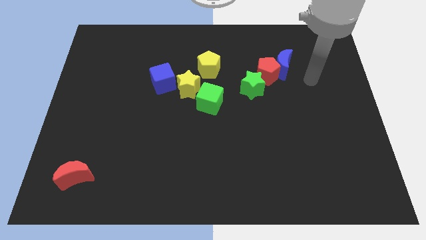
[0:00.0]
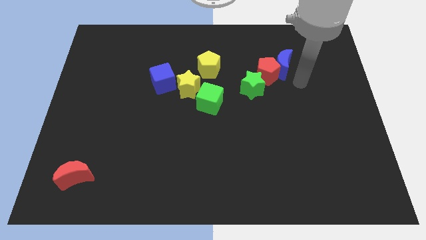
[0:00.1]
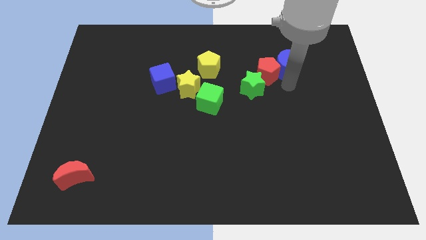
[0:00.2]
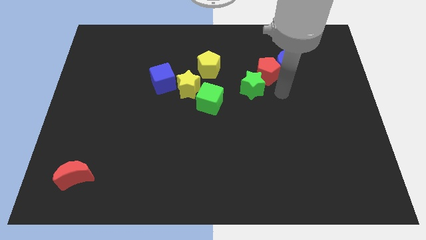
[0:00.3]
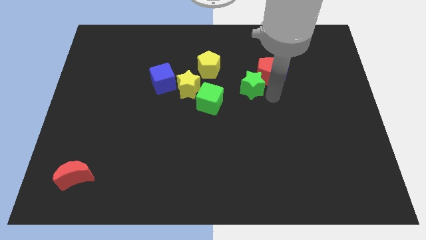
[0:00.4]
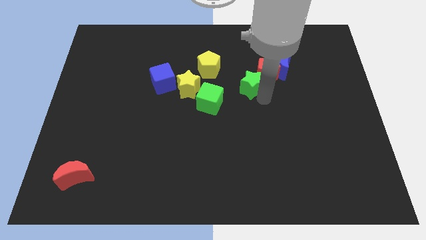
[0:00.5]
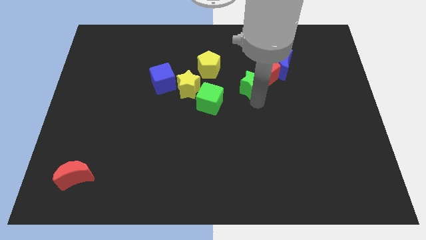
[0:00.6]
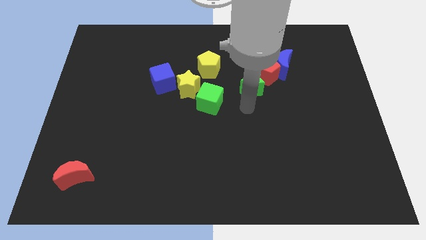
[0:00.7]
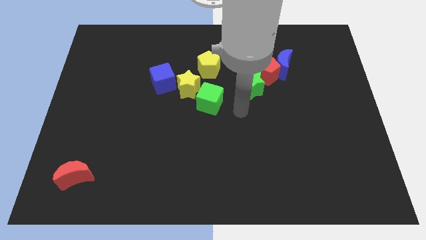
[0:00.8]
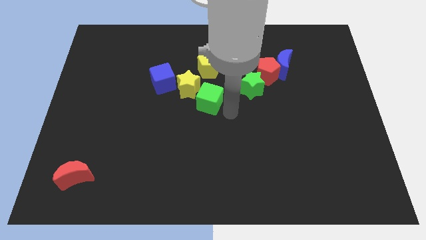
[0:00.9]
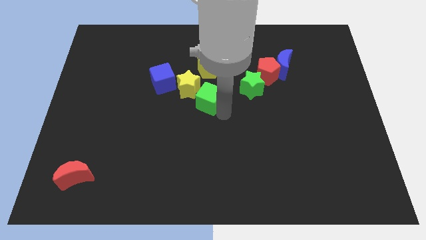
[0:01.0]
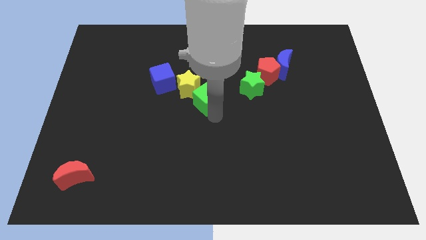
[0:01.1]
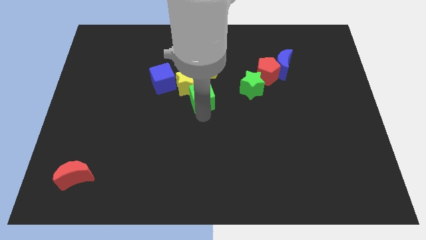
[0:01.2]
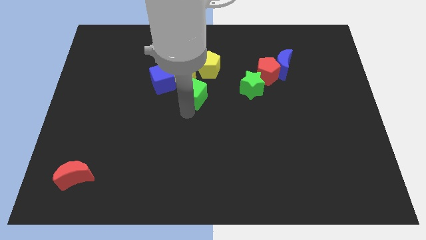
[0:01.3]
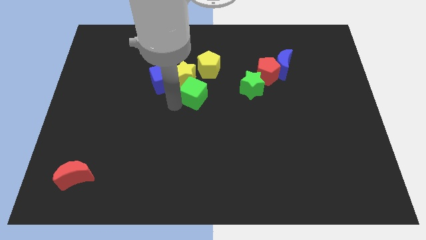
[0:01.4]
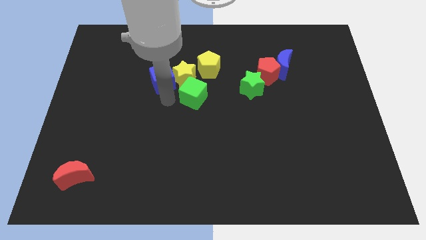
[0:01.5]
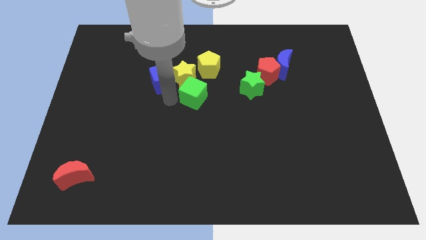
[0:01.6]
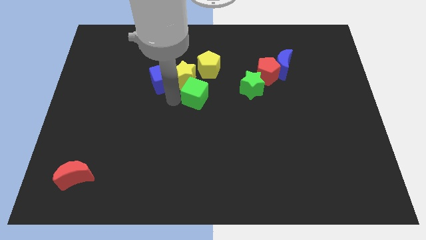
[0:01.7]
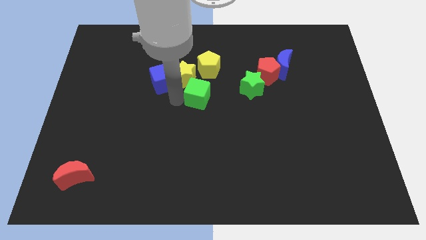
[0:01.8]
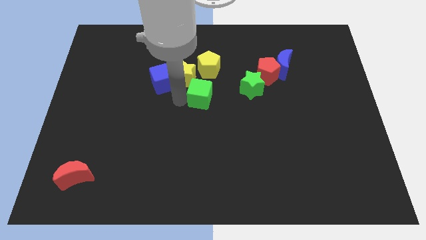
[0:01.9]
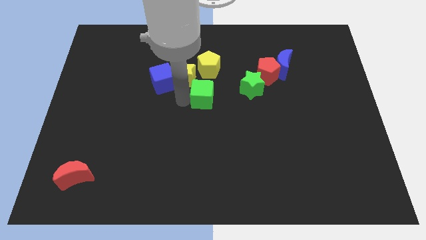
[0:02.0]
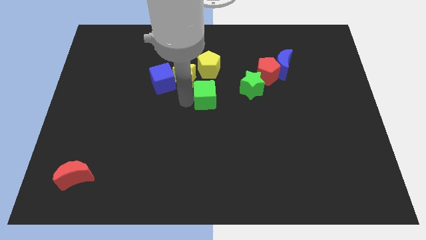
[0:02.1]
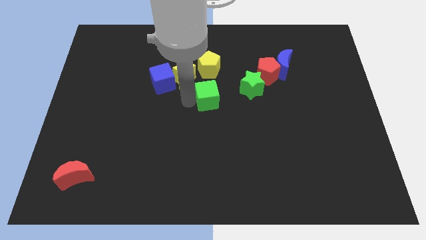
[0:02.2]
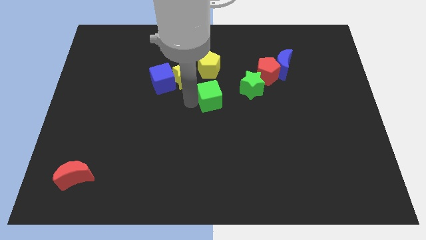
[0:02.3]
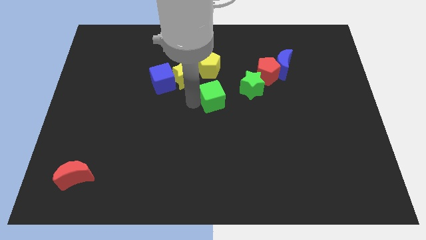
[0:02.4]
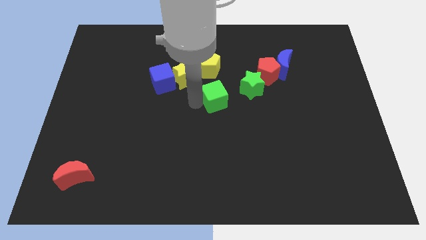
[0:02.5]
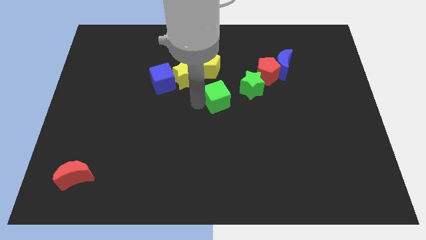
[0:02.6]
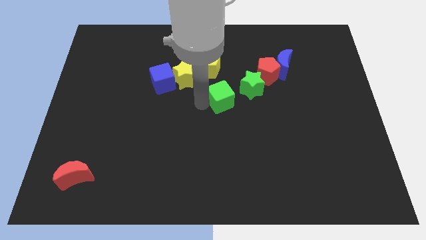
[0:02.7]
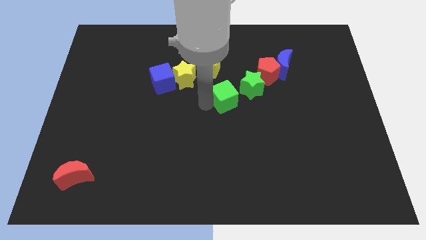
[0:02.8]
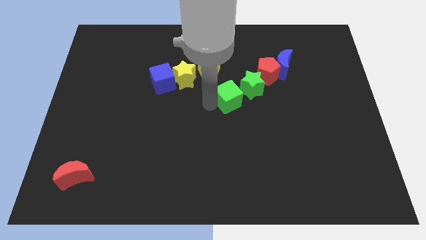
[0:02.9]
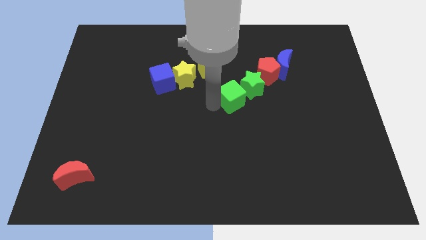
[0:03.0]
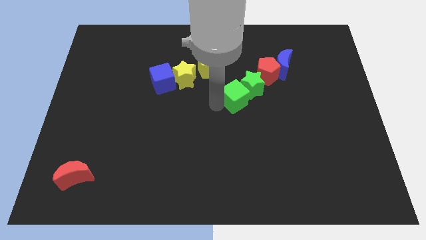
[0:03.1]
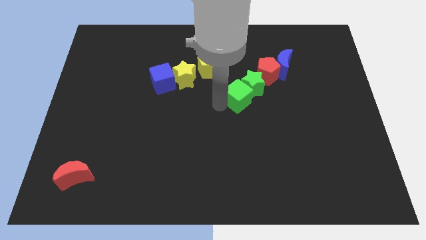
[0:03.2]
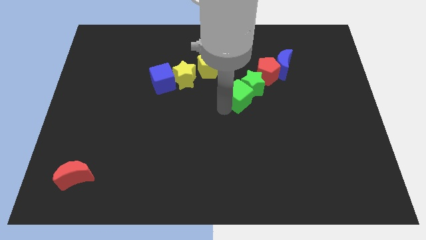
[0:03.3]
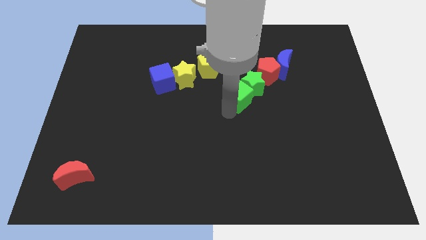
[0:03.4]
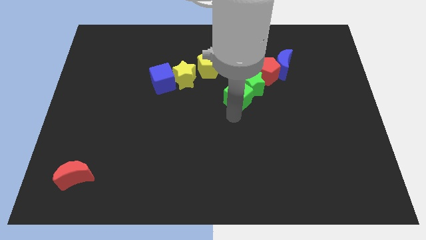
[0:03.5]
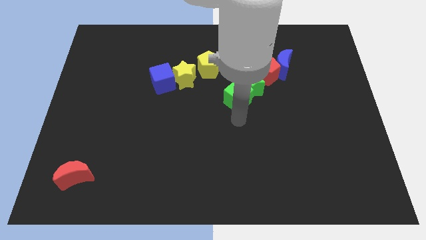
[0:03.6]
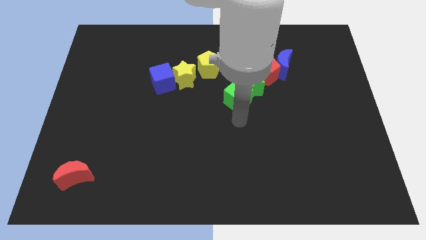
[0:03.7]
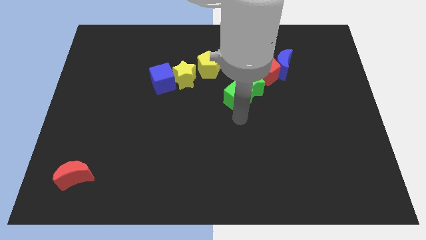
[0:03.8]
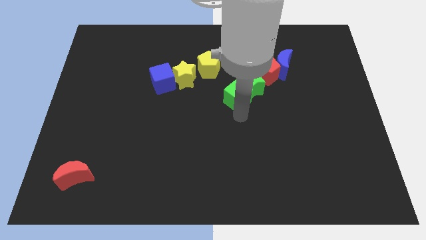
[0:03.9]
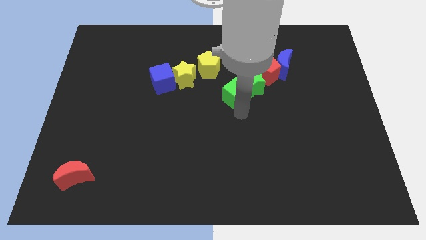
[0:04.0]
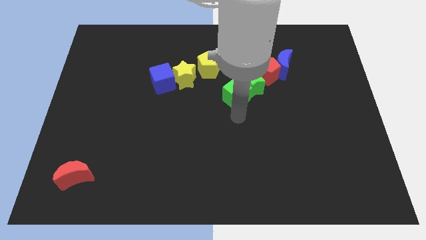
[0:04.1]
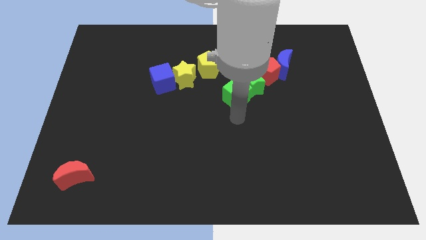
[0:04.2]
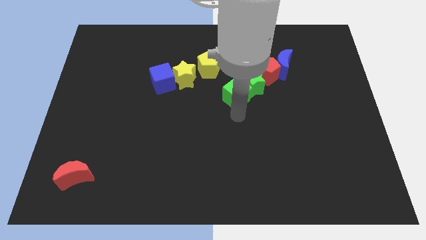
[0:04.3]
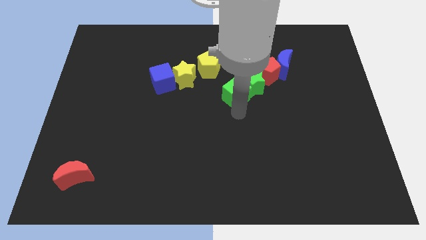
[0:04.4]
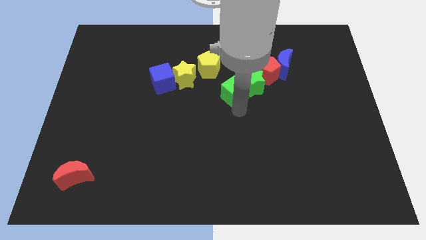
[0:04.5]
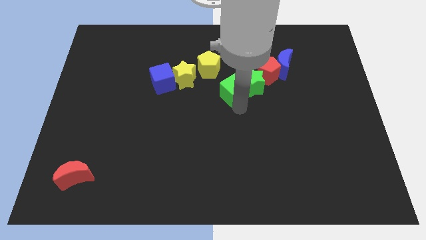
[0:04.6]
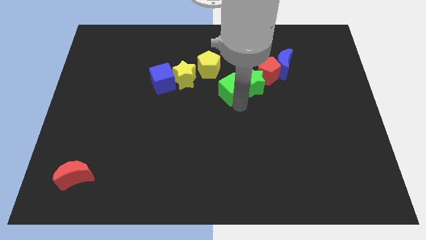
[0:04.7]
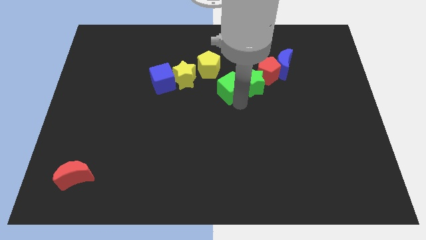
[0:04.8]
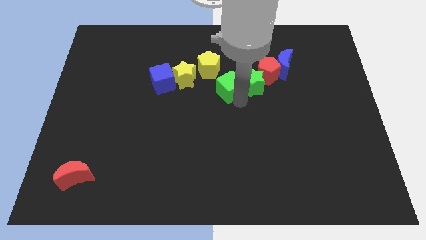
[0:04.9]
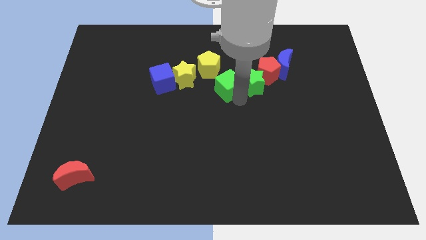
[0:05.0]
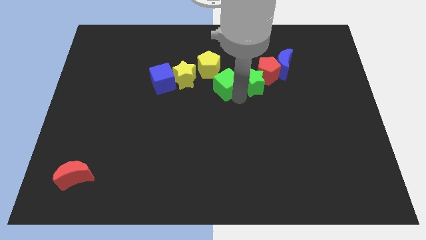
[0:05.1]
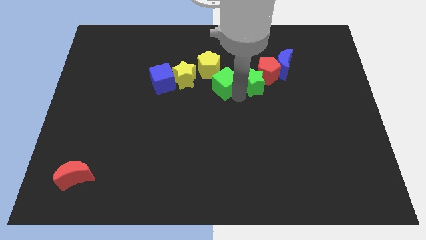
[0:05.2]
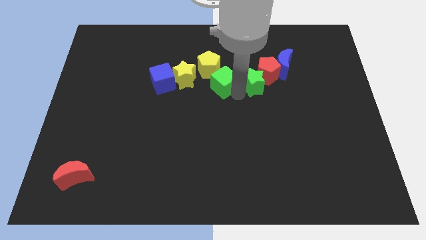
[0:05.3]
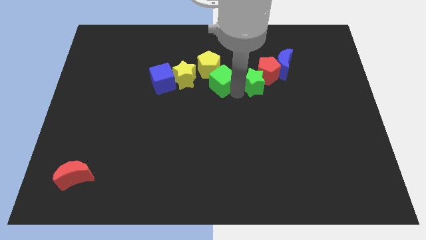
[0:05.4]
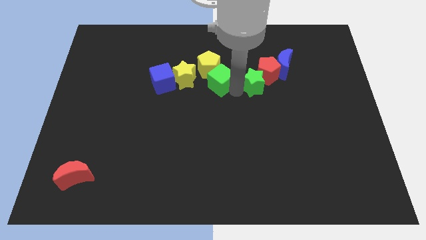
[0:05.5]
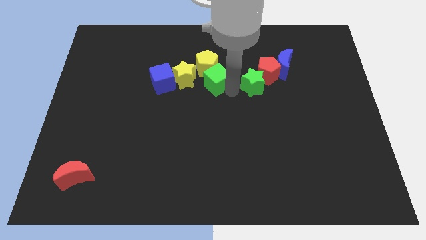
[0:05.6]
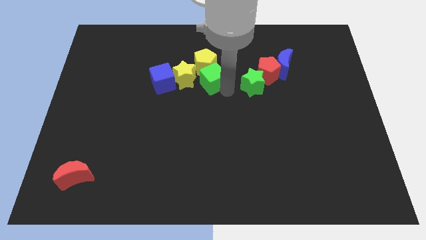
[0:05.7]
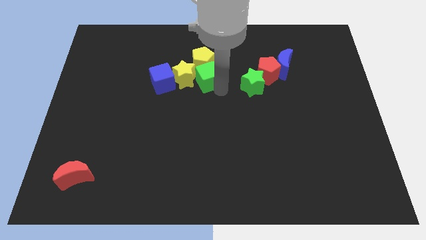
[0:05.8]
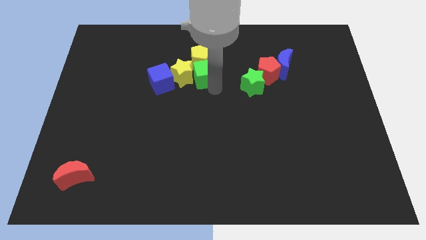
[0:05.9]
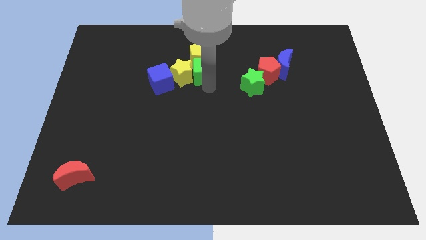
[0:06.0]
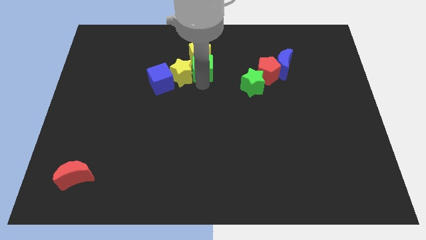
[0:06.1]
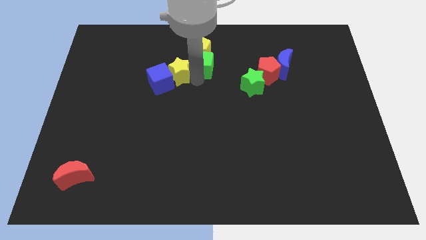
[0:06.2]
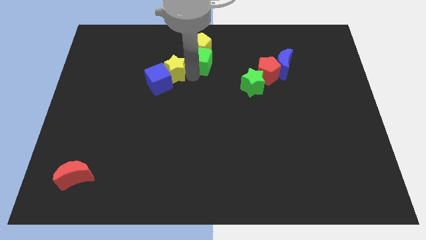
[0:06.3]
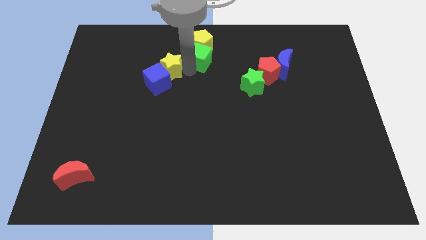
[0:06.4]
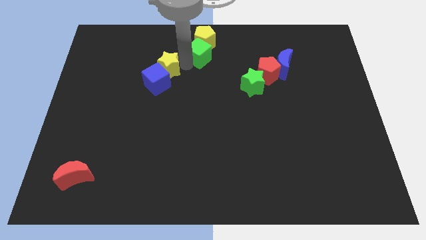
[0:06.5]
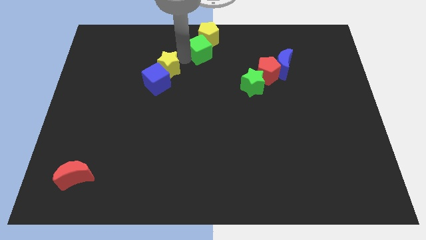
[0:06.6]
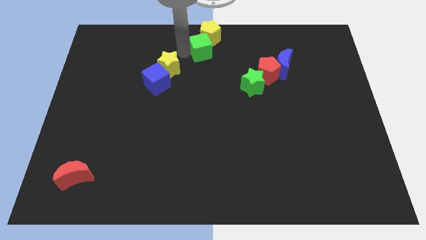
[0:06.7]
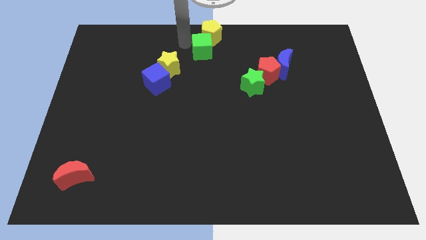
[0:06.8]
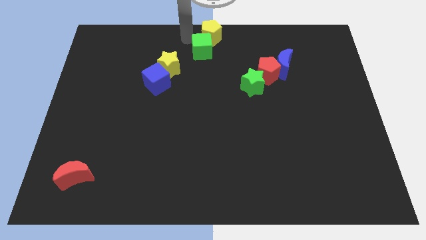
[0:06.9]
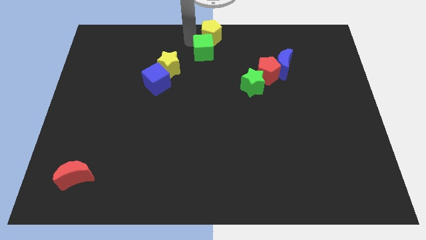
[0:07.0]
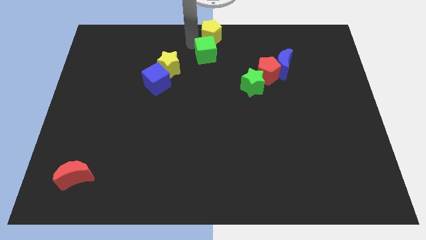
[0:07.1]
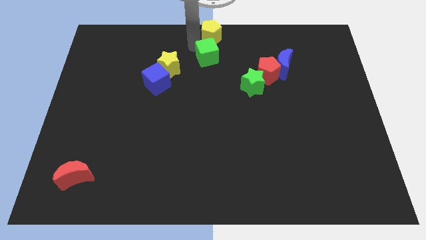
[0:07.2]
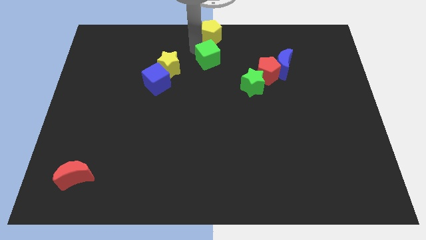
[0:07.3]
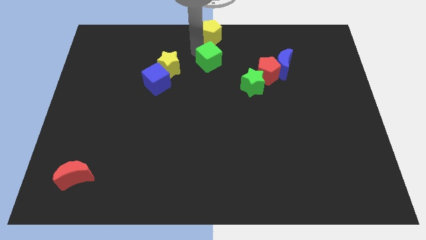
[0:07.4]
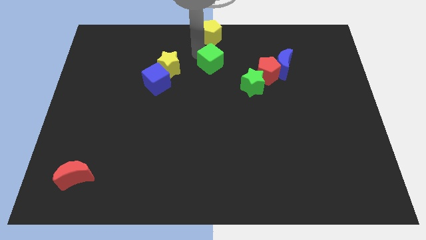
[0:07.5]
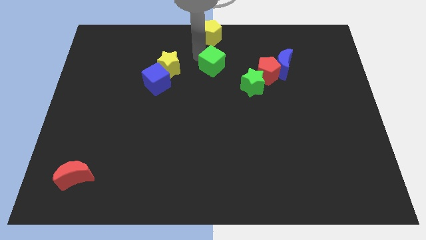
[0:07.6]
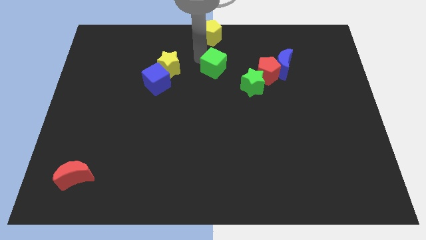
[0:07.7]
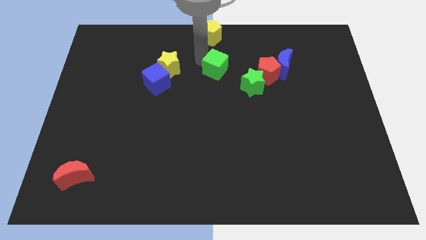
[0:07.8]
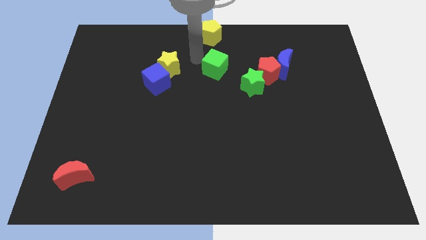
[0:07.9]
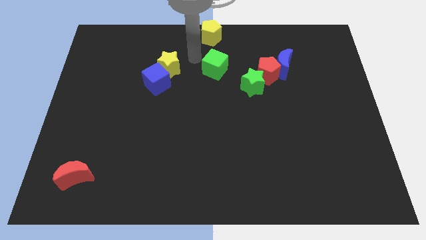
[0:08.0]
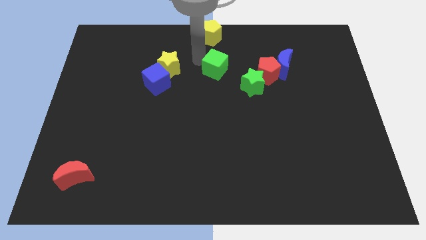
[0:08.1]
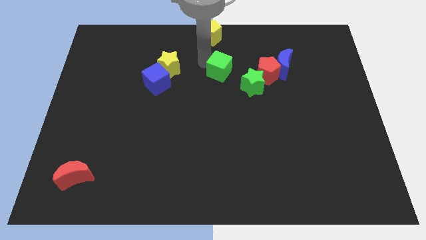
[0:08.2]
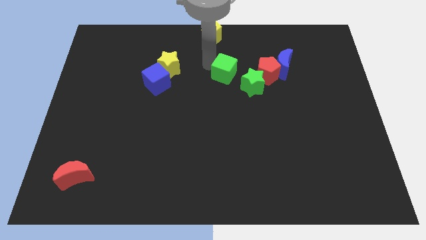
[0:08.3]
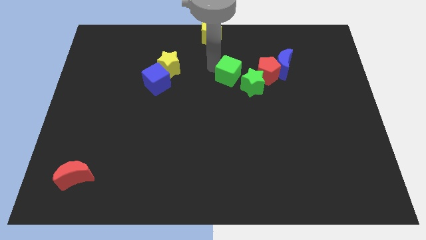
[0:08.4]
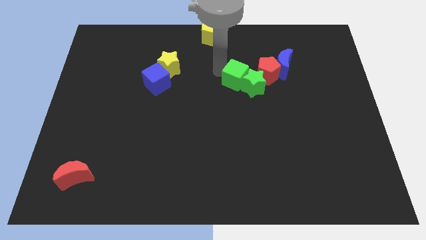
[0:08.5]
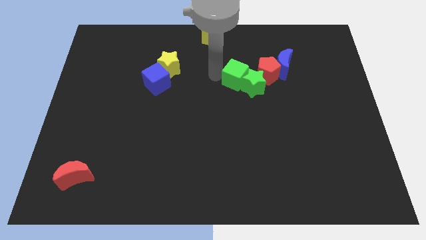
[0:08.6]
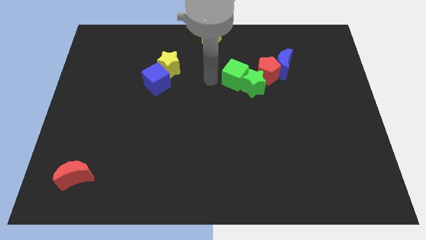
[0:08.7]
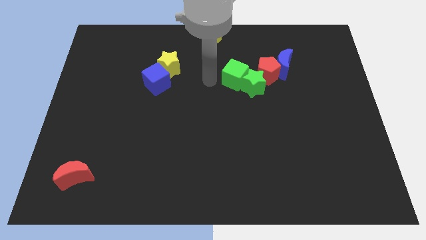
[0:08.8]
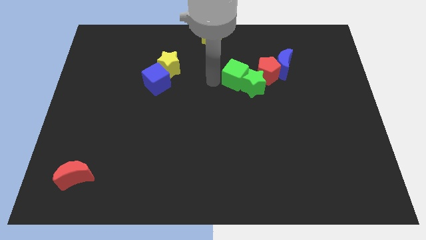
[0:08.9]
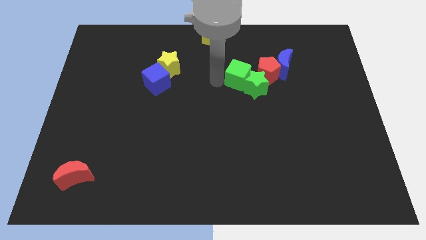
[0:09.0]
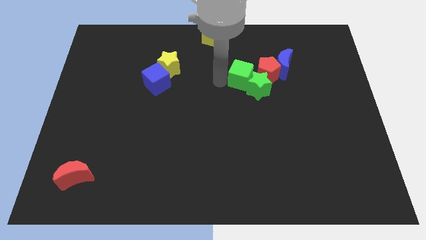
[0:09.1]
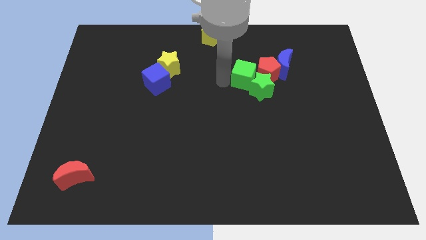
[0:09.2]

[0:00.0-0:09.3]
slide the green cube close to the red pentagon
